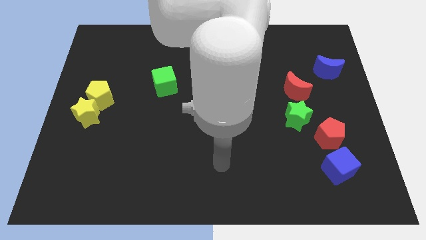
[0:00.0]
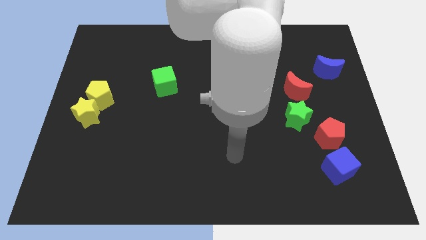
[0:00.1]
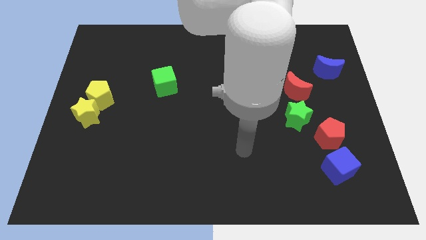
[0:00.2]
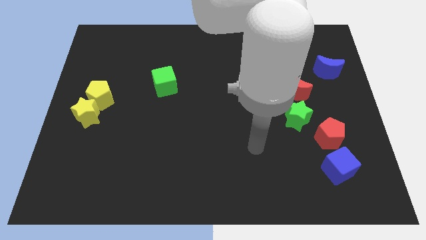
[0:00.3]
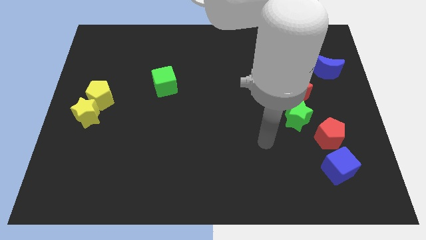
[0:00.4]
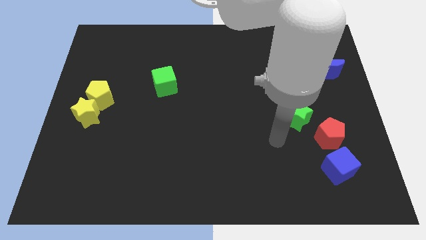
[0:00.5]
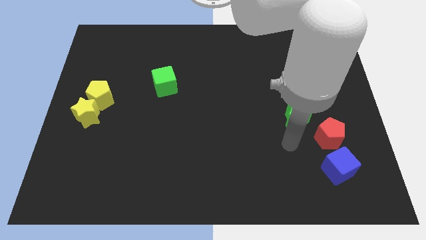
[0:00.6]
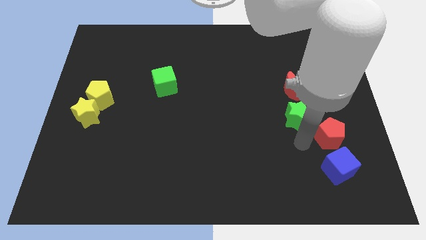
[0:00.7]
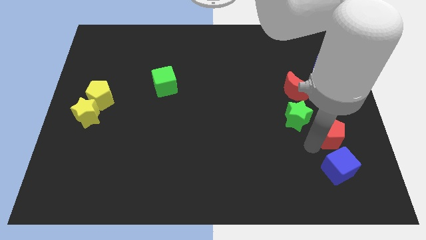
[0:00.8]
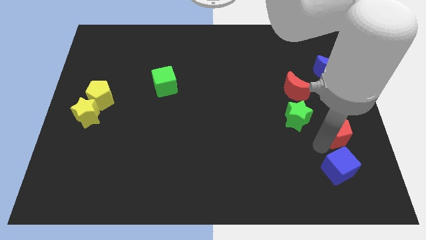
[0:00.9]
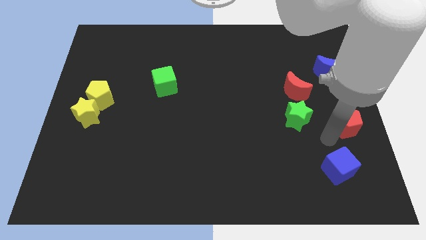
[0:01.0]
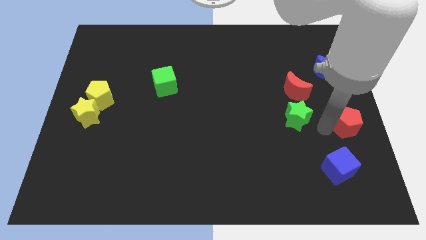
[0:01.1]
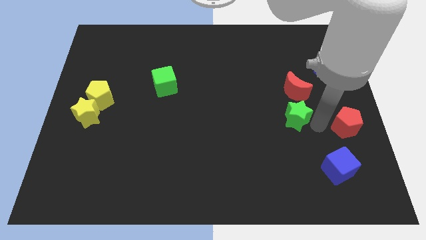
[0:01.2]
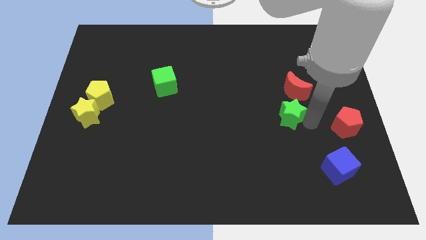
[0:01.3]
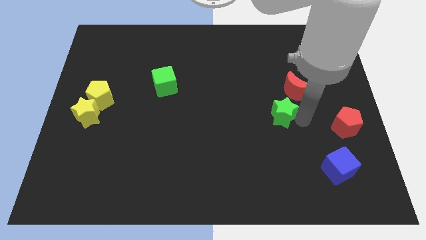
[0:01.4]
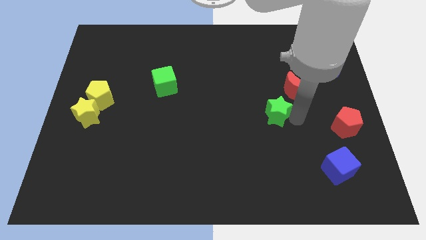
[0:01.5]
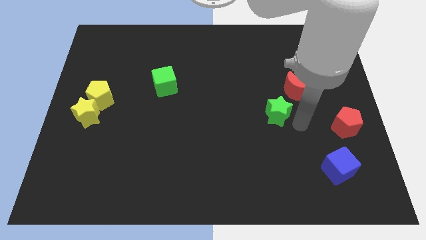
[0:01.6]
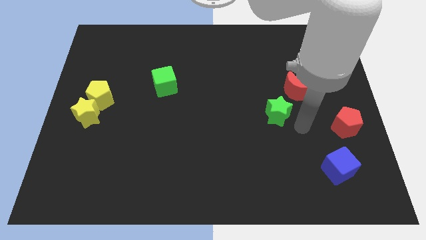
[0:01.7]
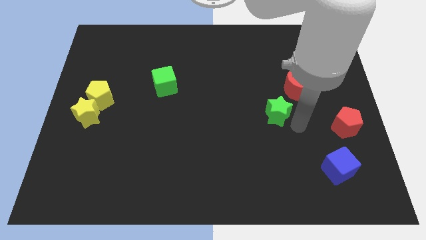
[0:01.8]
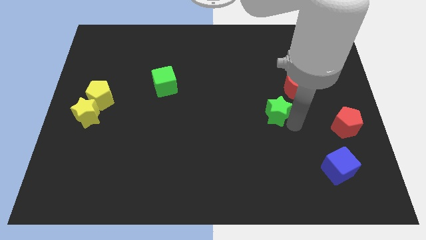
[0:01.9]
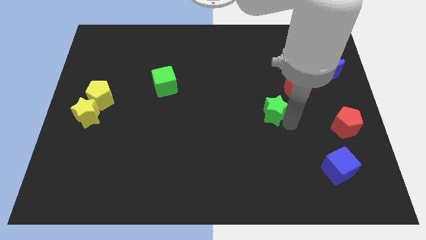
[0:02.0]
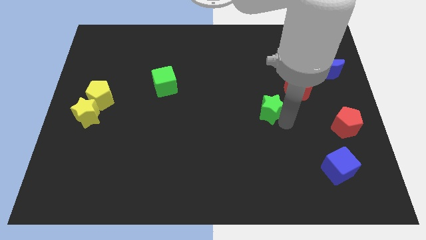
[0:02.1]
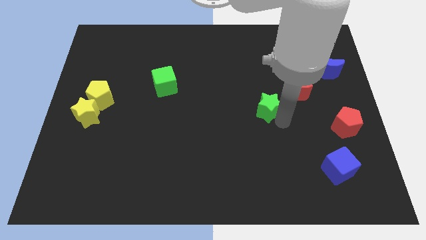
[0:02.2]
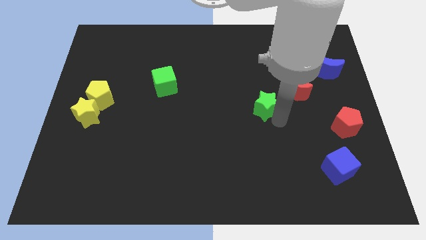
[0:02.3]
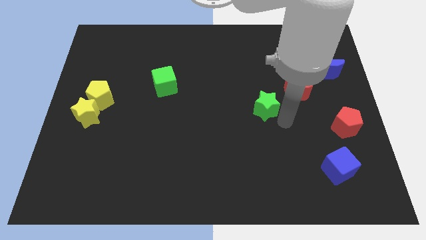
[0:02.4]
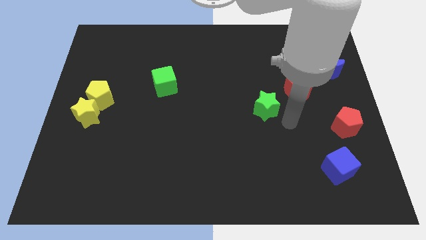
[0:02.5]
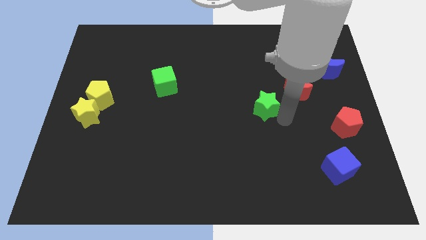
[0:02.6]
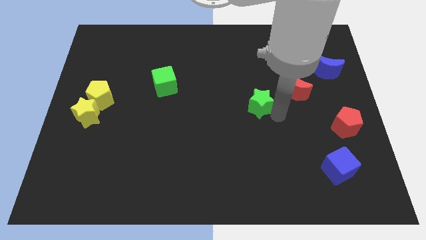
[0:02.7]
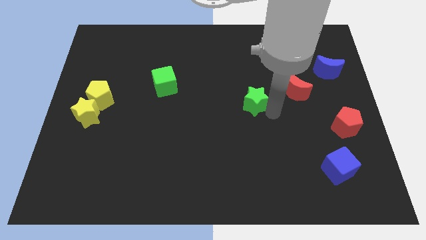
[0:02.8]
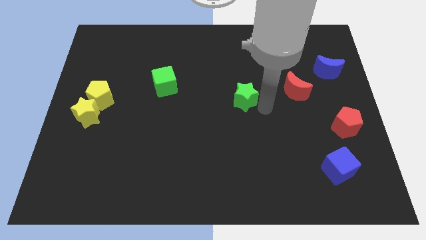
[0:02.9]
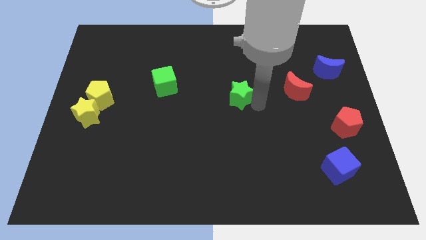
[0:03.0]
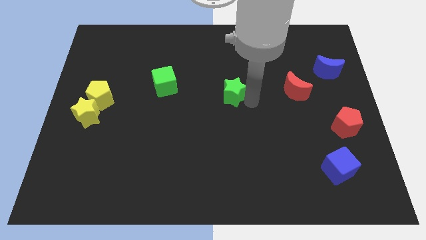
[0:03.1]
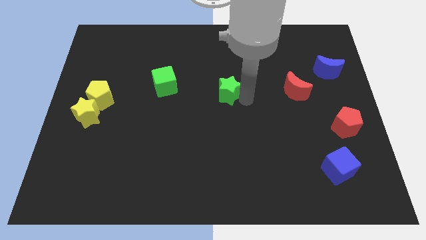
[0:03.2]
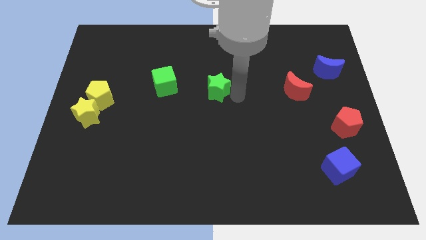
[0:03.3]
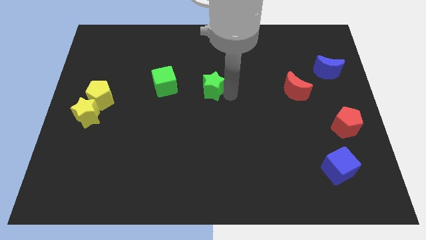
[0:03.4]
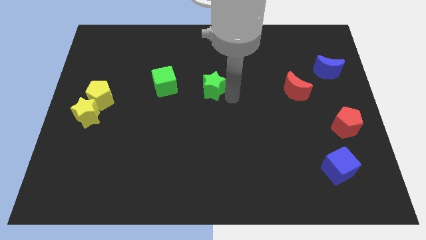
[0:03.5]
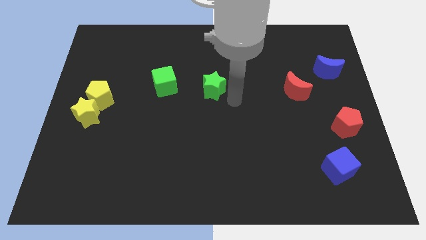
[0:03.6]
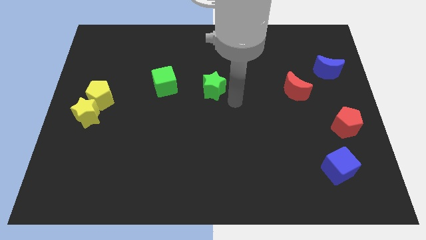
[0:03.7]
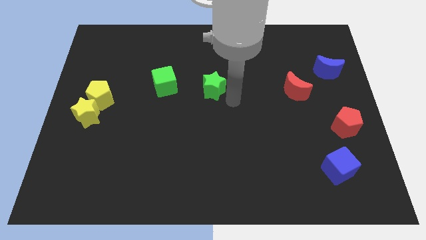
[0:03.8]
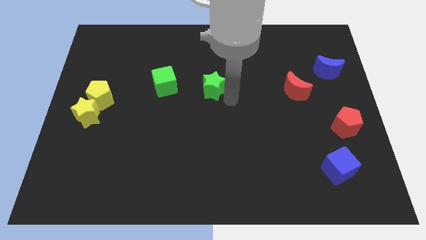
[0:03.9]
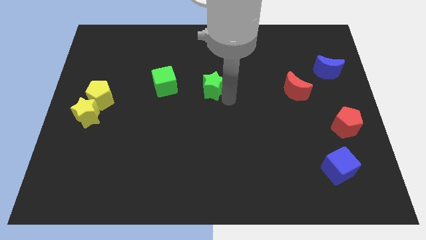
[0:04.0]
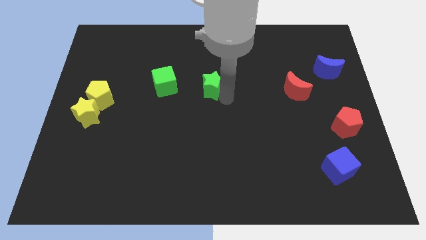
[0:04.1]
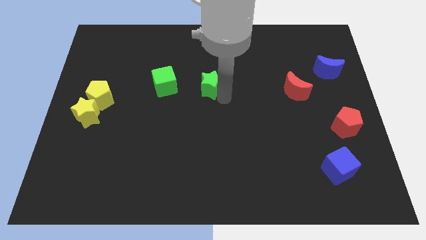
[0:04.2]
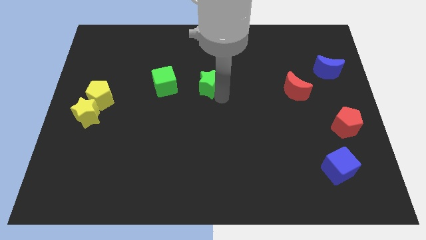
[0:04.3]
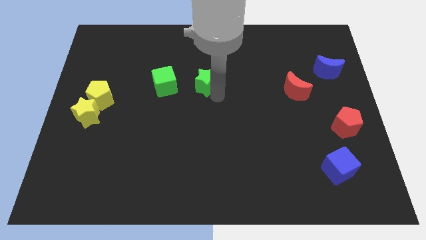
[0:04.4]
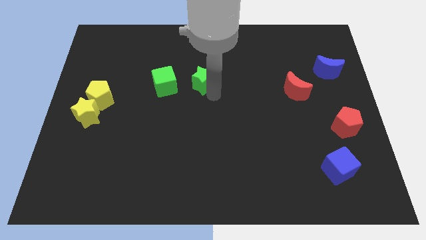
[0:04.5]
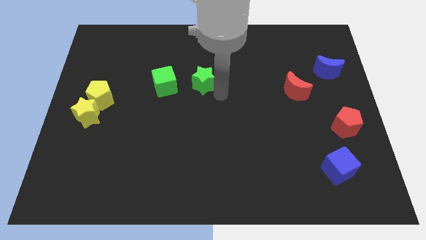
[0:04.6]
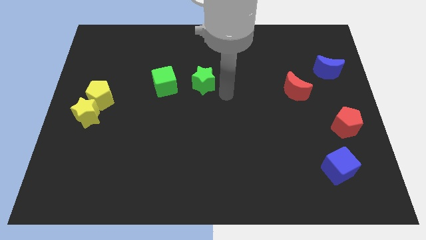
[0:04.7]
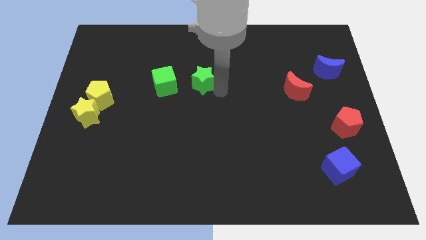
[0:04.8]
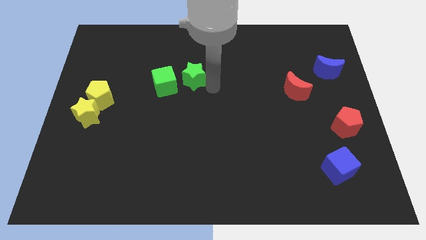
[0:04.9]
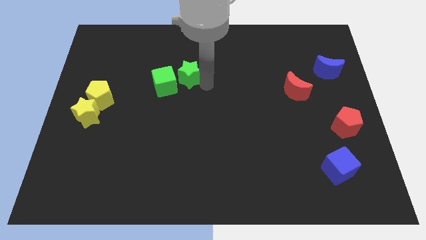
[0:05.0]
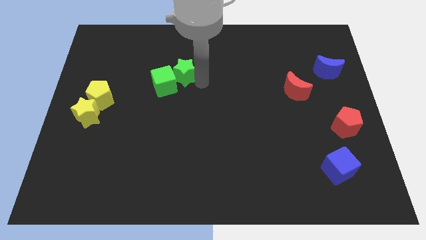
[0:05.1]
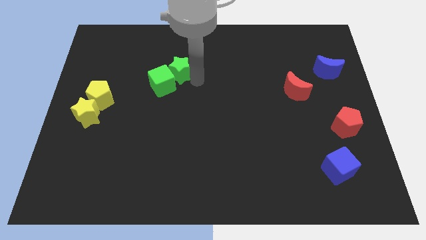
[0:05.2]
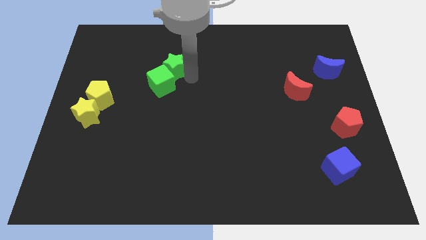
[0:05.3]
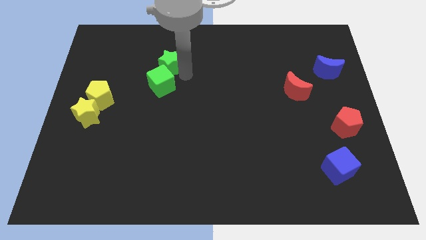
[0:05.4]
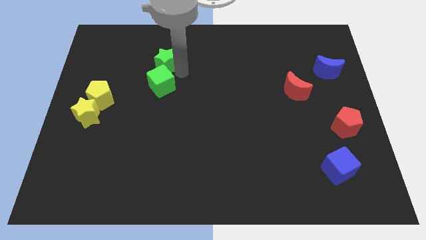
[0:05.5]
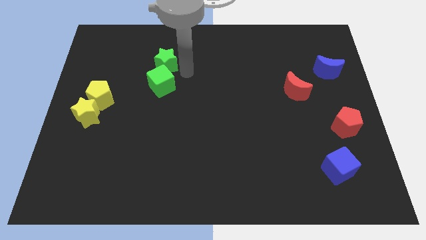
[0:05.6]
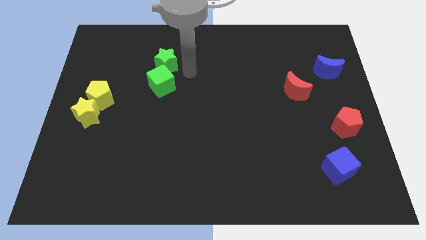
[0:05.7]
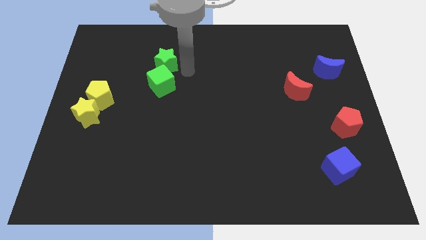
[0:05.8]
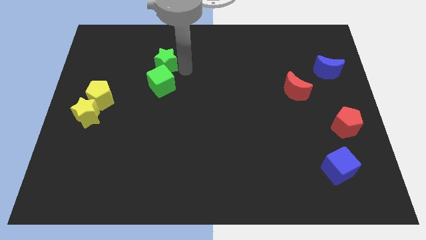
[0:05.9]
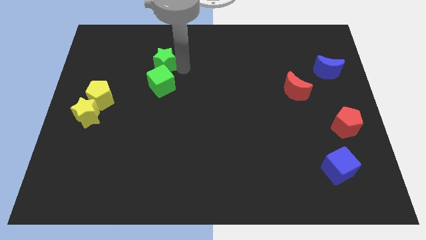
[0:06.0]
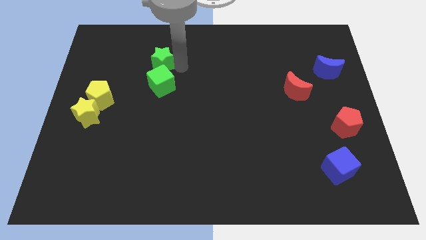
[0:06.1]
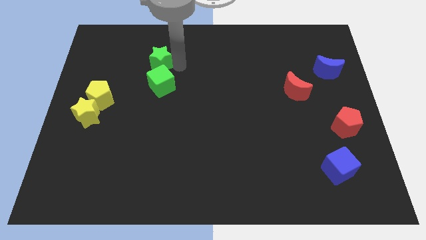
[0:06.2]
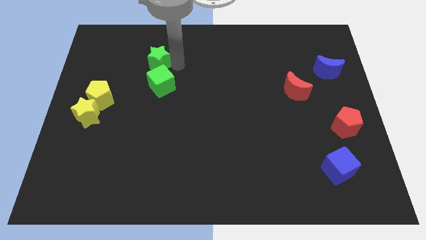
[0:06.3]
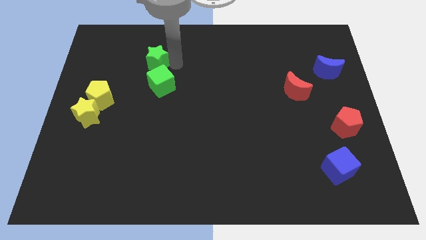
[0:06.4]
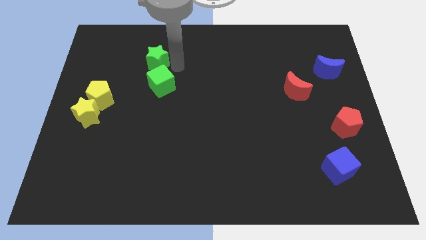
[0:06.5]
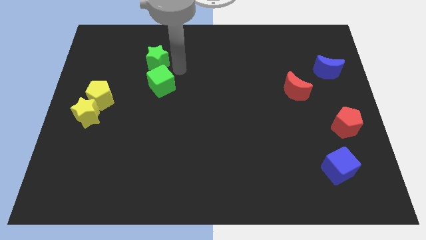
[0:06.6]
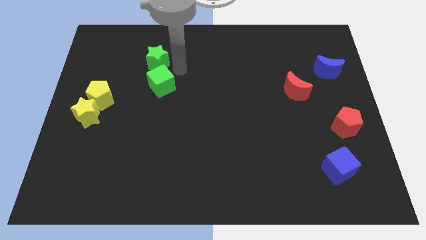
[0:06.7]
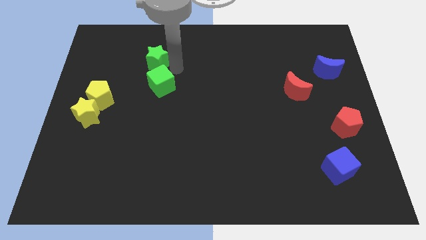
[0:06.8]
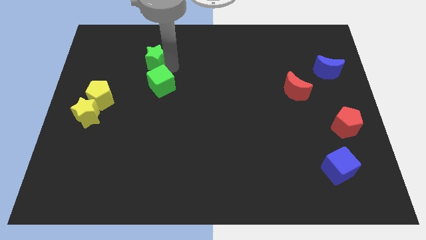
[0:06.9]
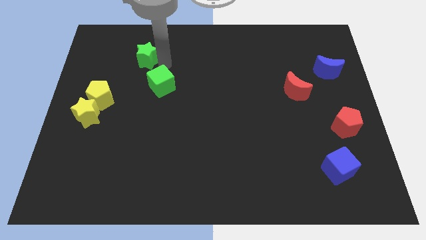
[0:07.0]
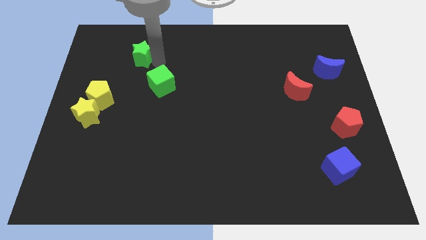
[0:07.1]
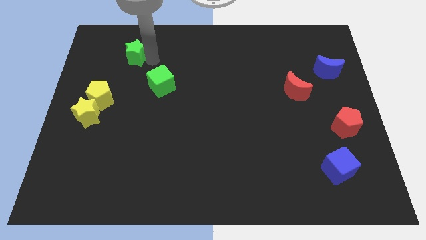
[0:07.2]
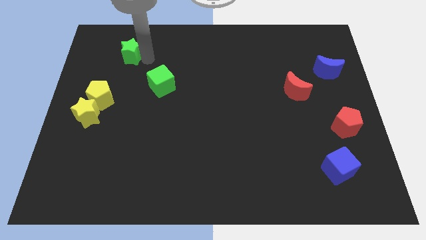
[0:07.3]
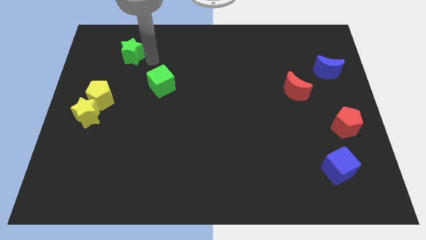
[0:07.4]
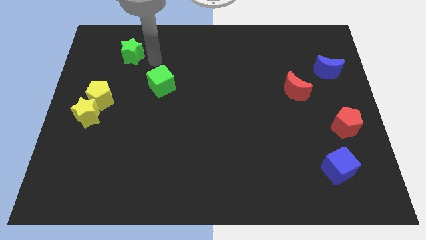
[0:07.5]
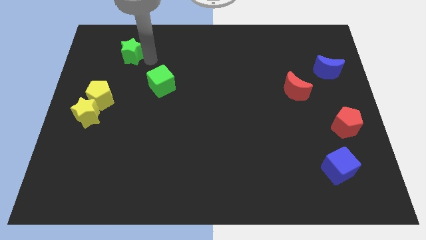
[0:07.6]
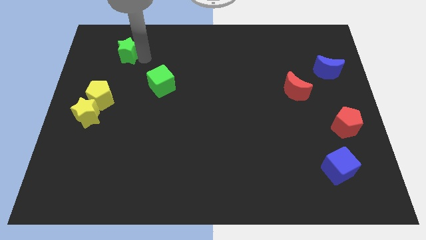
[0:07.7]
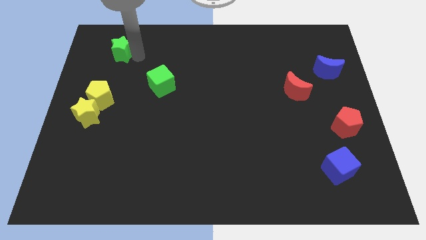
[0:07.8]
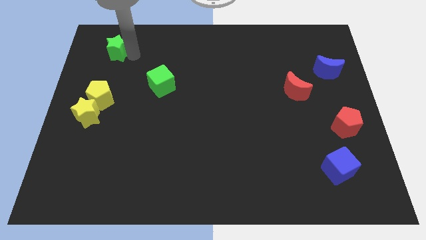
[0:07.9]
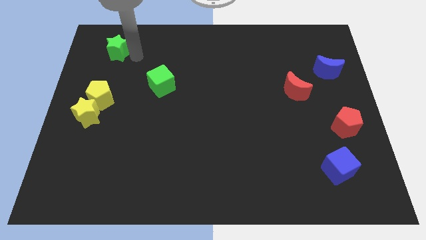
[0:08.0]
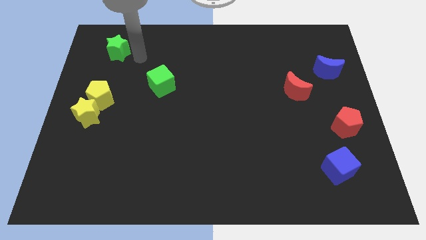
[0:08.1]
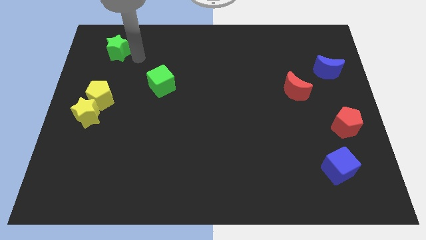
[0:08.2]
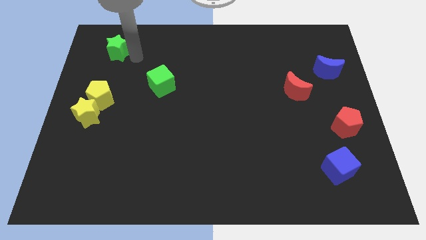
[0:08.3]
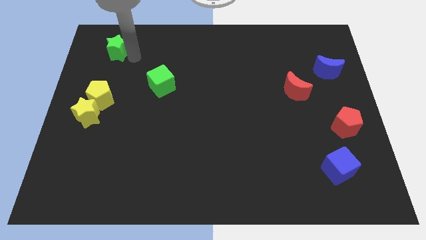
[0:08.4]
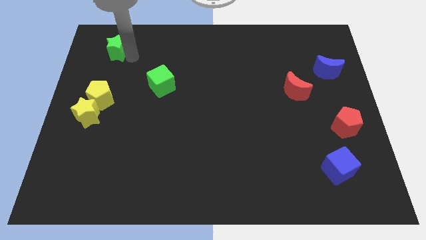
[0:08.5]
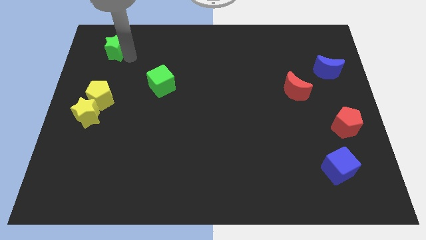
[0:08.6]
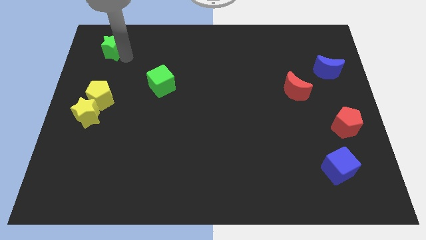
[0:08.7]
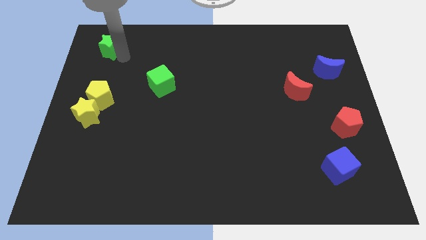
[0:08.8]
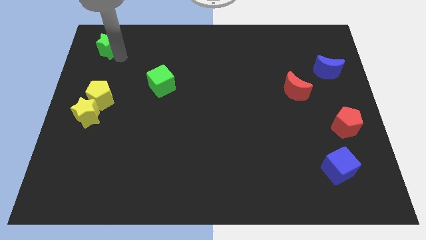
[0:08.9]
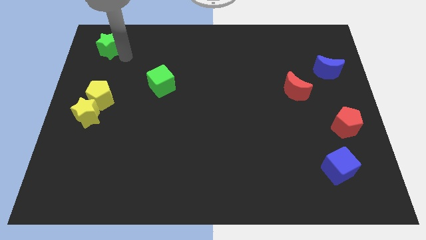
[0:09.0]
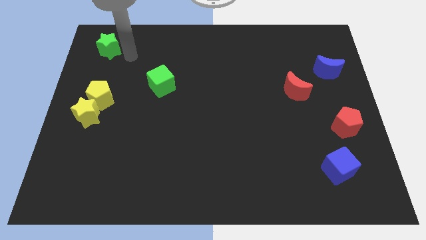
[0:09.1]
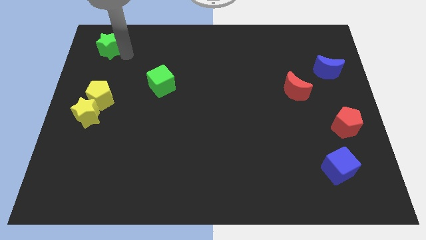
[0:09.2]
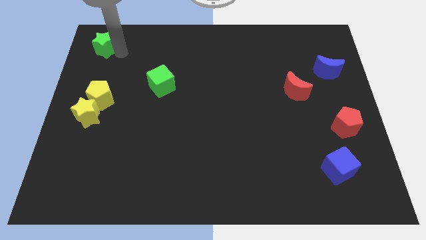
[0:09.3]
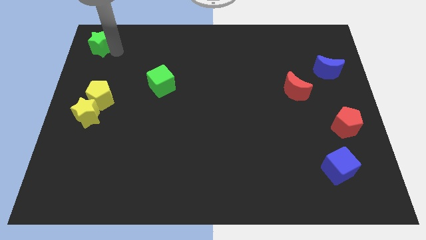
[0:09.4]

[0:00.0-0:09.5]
put the green star to the top left
